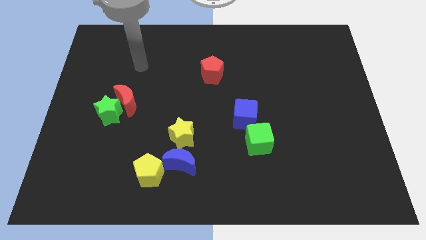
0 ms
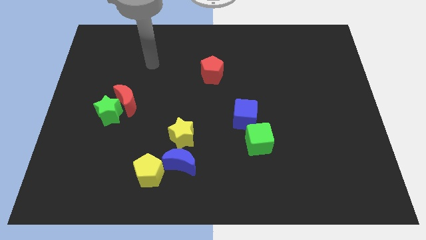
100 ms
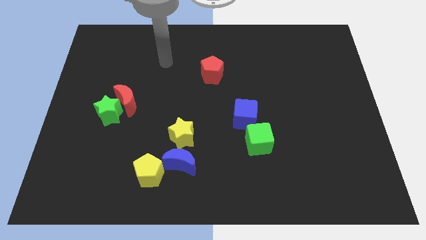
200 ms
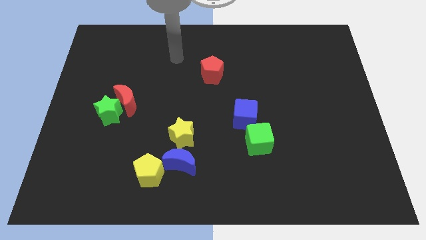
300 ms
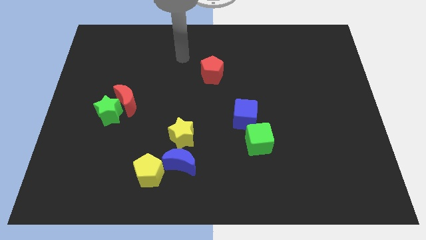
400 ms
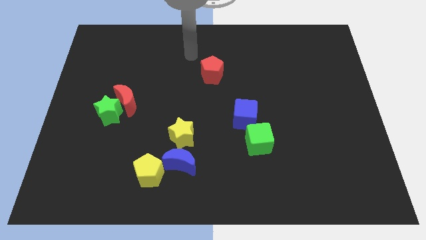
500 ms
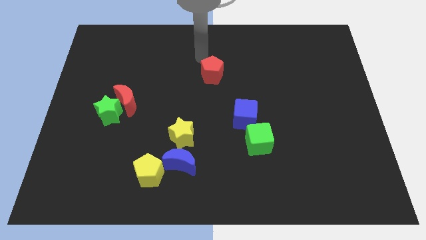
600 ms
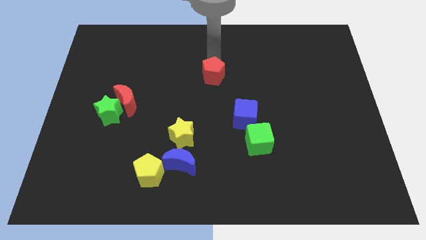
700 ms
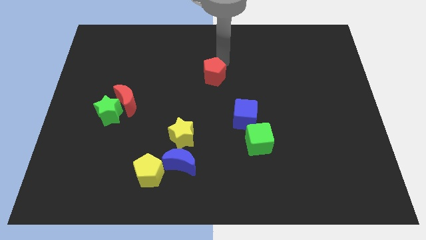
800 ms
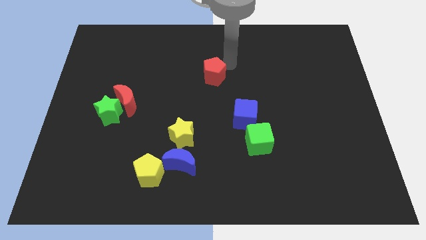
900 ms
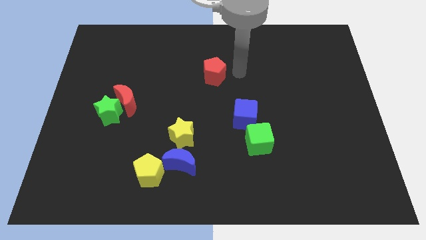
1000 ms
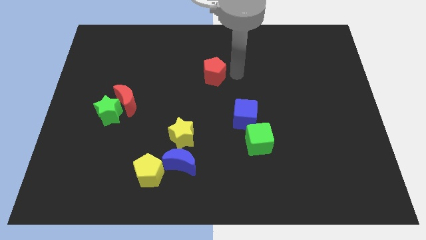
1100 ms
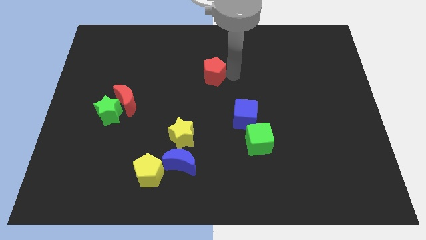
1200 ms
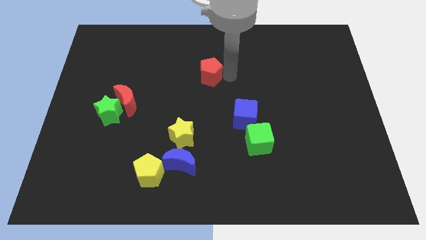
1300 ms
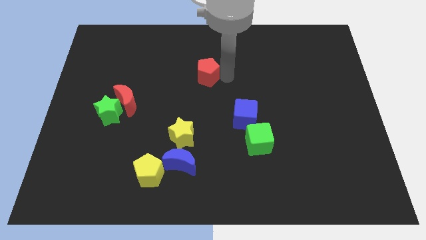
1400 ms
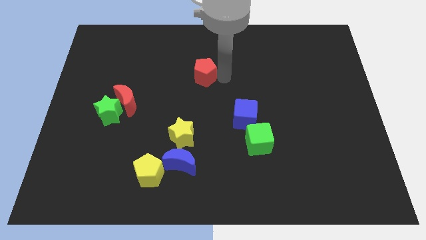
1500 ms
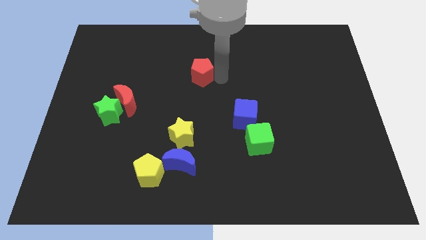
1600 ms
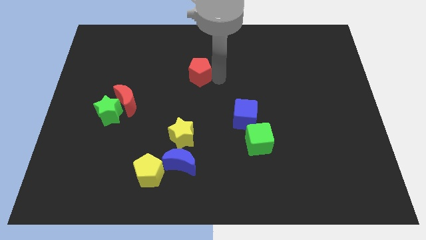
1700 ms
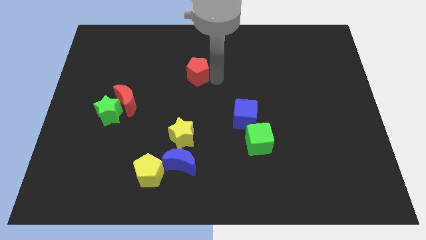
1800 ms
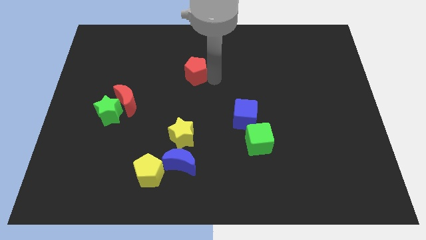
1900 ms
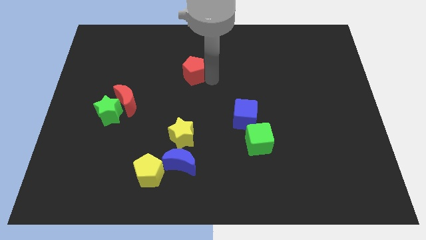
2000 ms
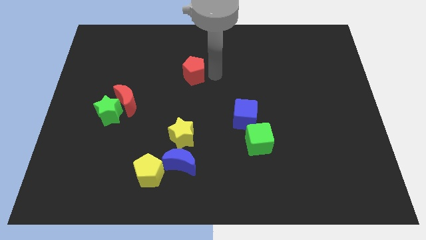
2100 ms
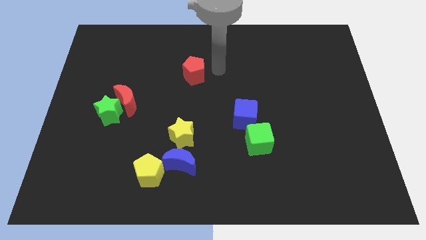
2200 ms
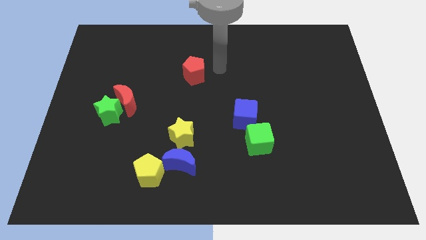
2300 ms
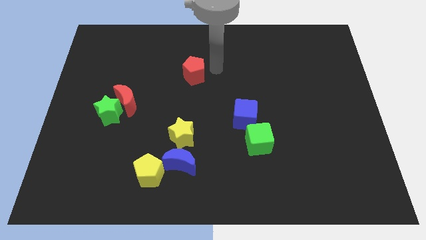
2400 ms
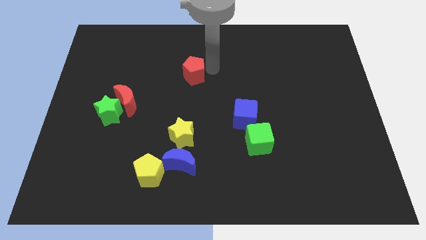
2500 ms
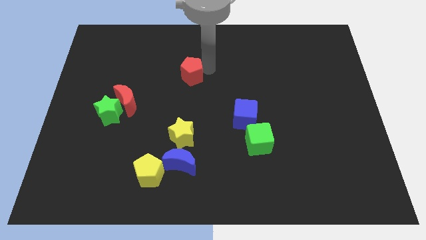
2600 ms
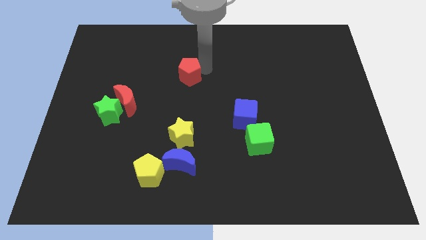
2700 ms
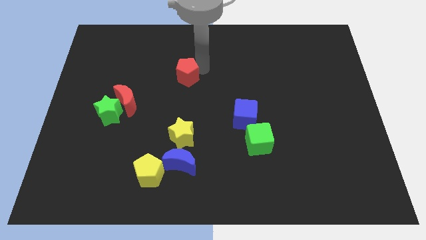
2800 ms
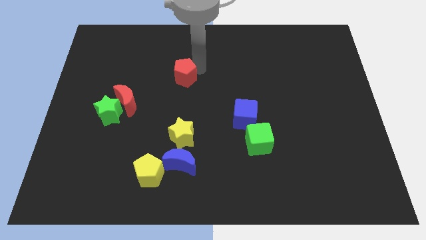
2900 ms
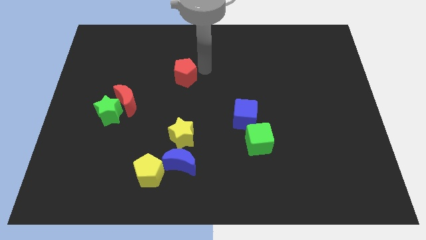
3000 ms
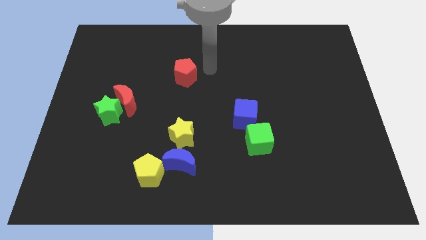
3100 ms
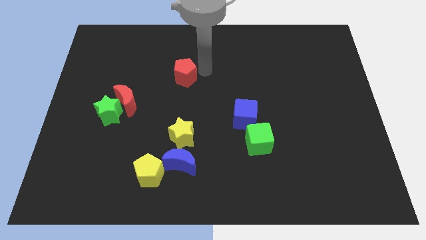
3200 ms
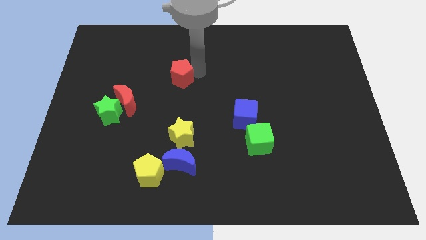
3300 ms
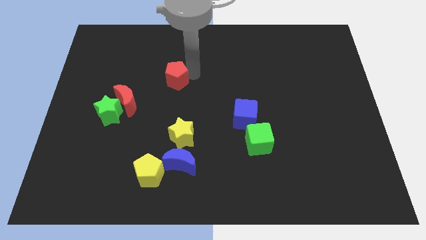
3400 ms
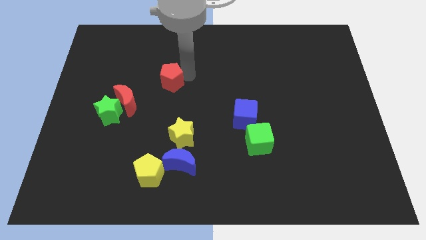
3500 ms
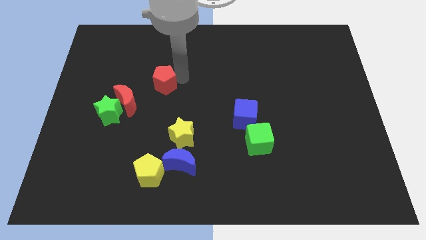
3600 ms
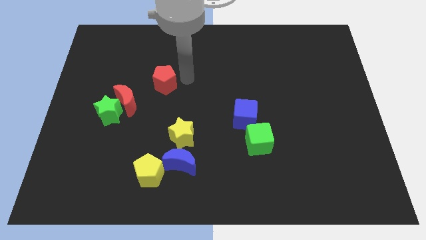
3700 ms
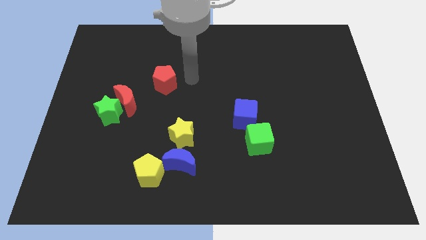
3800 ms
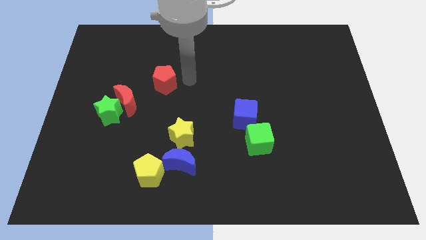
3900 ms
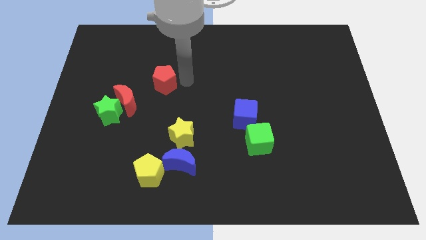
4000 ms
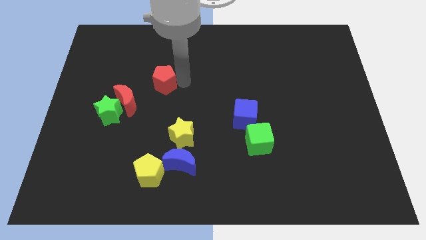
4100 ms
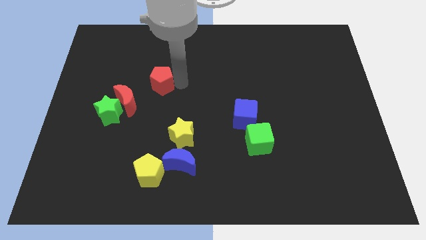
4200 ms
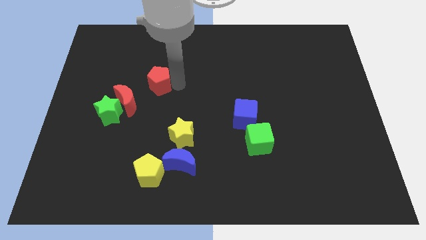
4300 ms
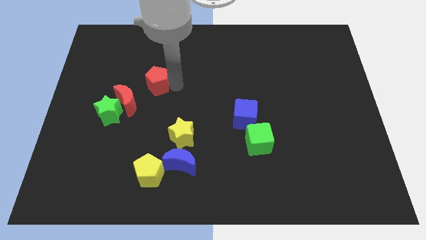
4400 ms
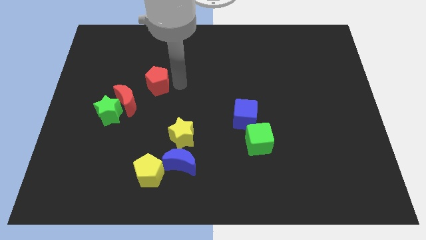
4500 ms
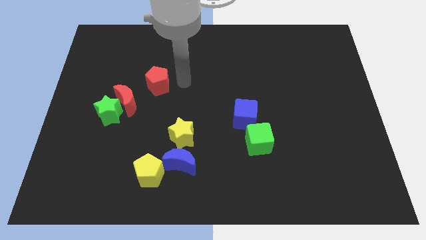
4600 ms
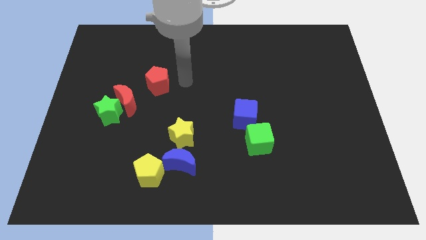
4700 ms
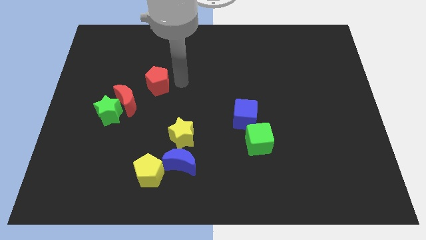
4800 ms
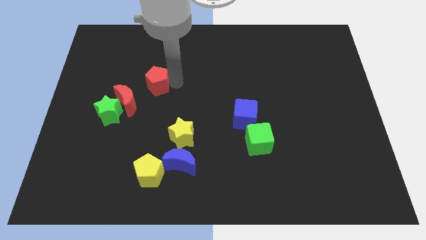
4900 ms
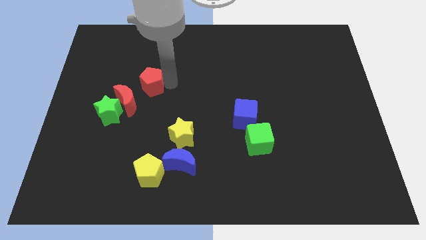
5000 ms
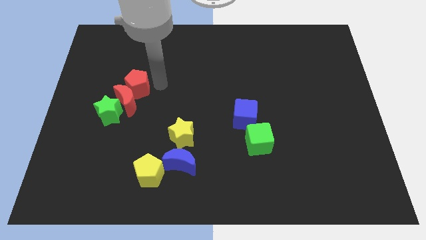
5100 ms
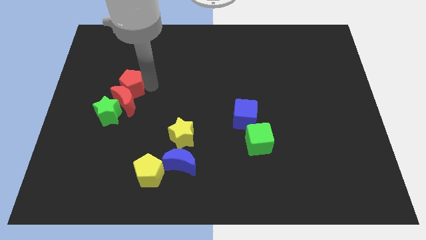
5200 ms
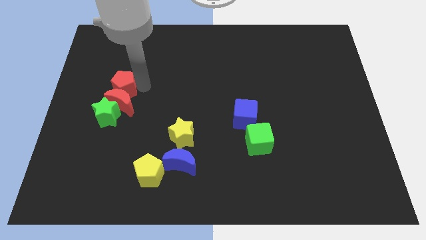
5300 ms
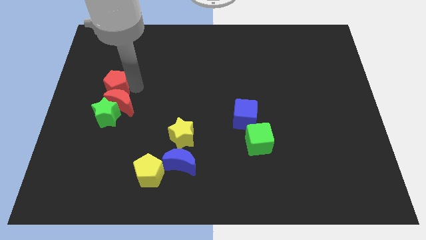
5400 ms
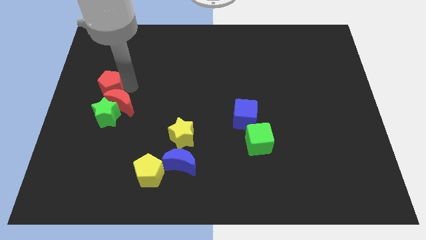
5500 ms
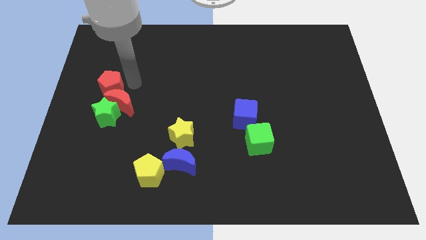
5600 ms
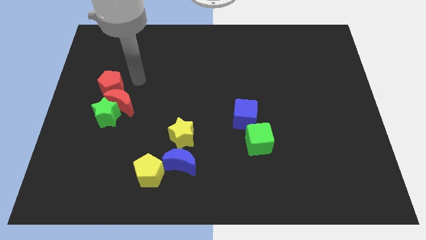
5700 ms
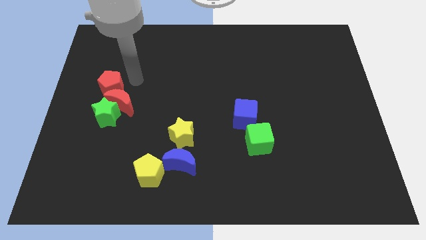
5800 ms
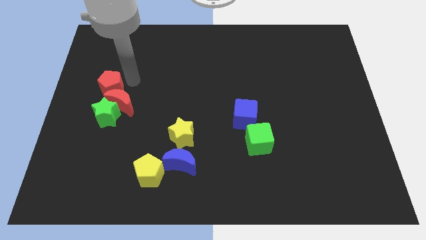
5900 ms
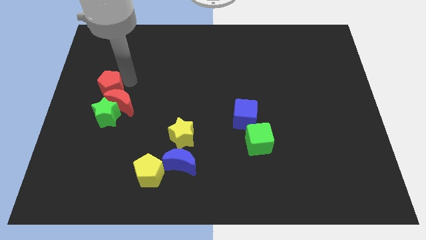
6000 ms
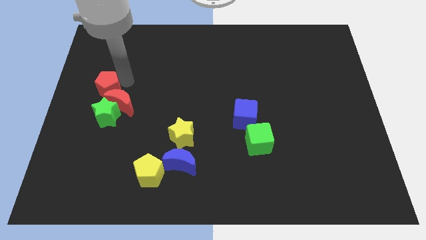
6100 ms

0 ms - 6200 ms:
move the red pentagon to the center left

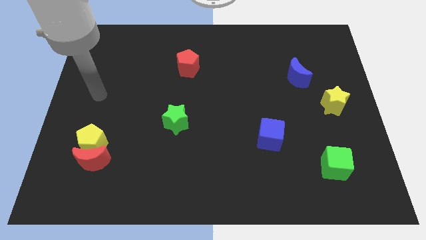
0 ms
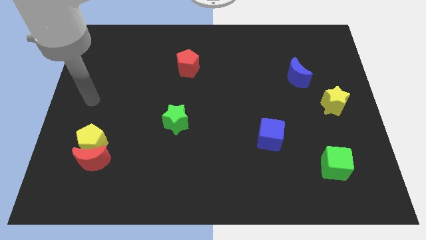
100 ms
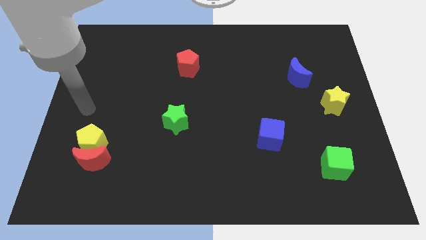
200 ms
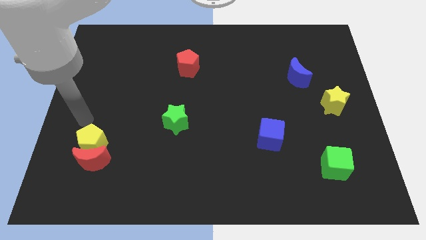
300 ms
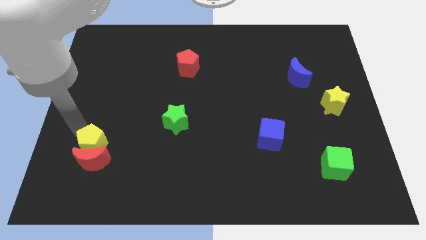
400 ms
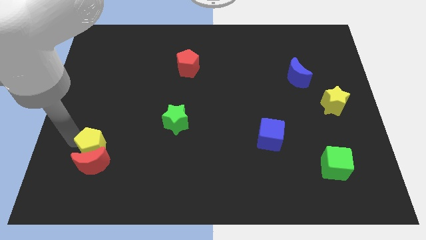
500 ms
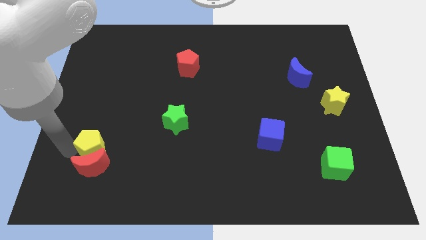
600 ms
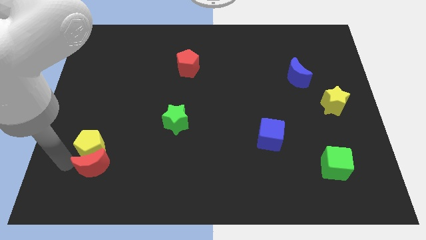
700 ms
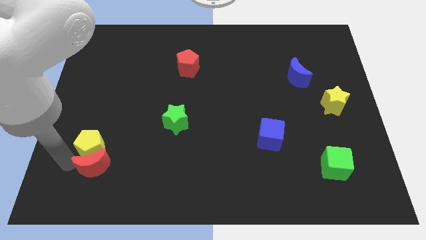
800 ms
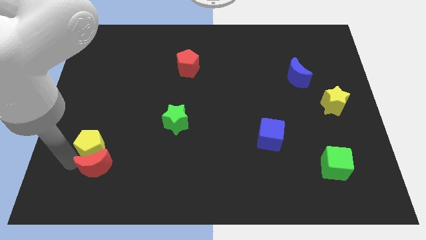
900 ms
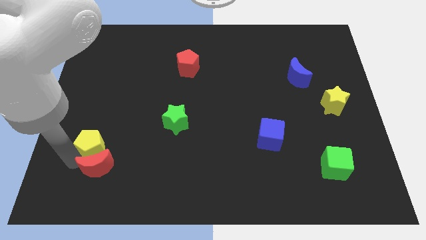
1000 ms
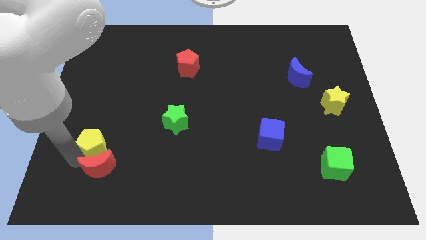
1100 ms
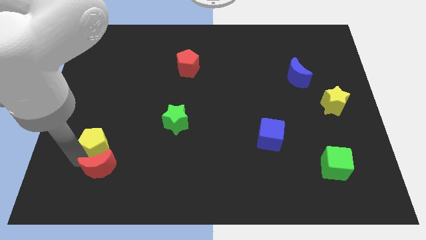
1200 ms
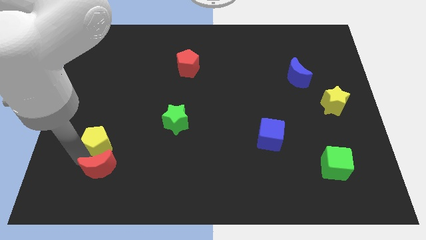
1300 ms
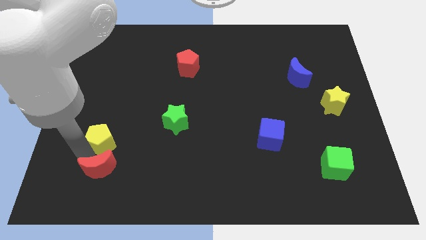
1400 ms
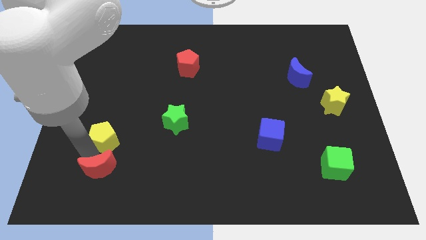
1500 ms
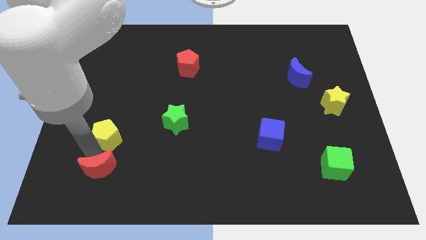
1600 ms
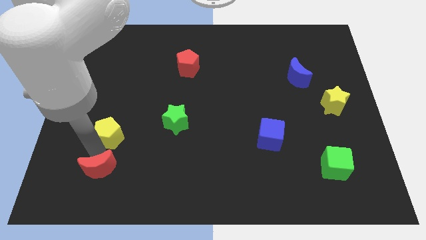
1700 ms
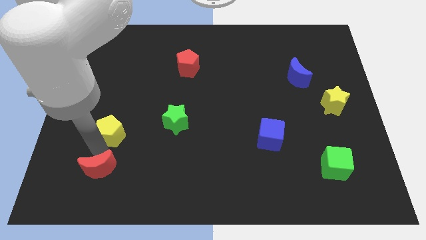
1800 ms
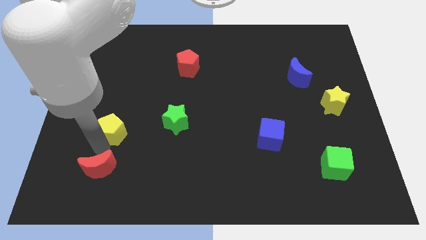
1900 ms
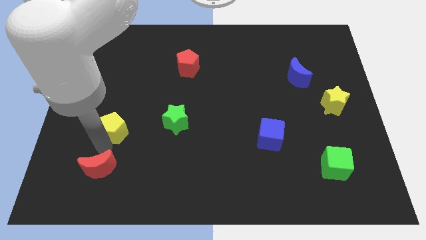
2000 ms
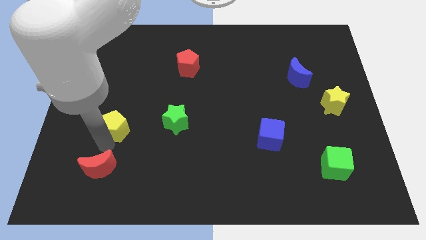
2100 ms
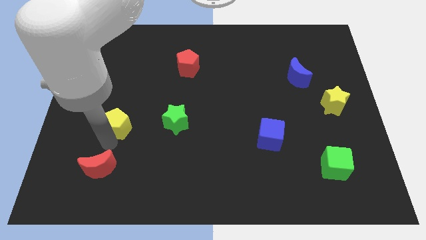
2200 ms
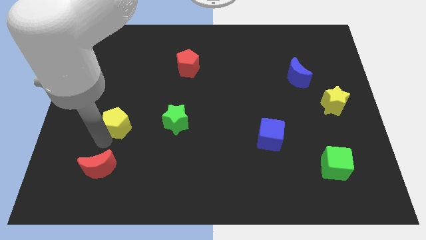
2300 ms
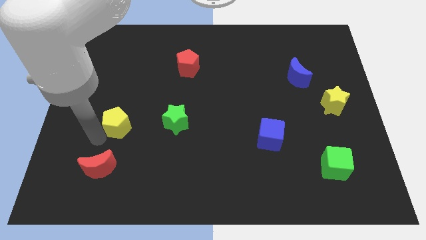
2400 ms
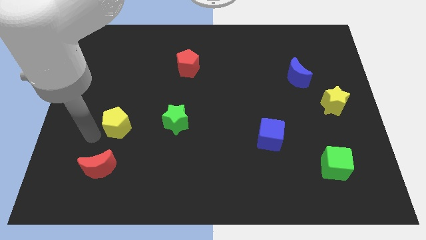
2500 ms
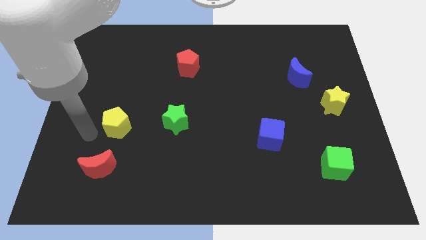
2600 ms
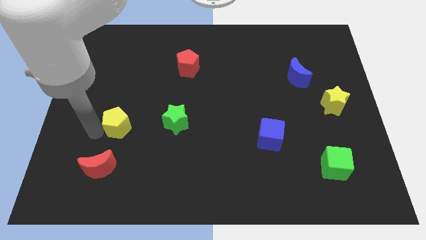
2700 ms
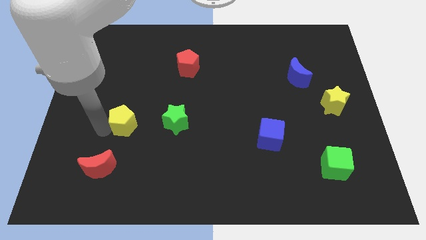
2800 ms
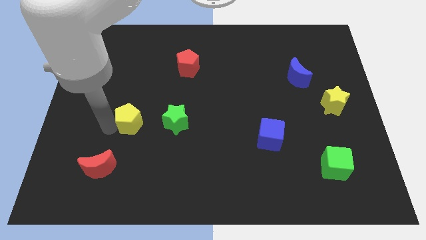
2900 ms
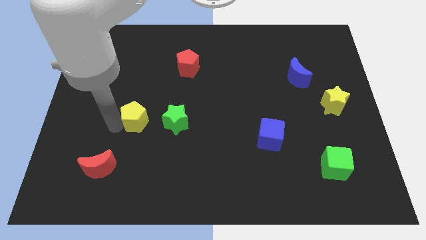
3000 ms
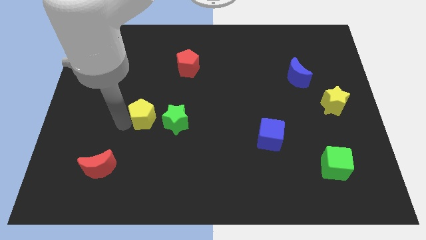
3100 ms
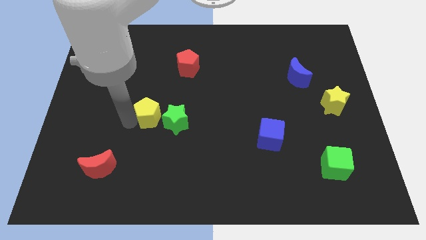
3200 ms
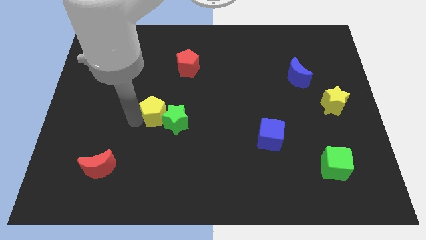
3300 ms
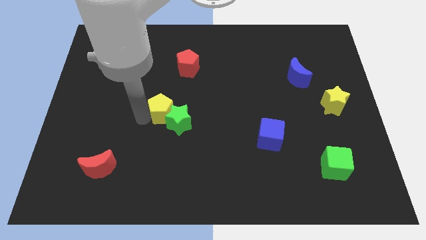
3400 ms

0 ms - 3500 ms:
push the yellow pentagon to the center
